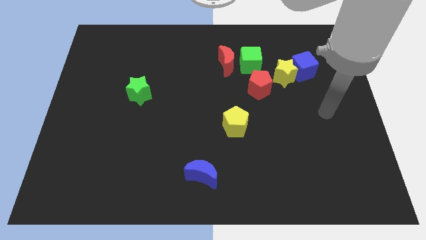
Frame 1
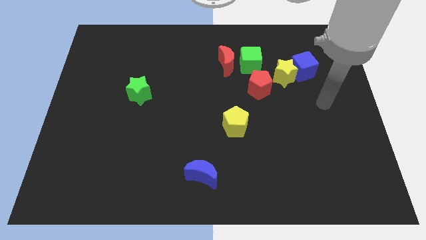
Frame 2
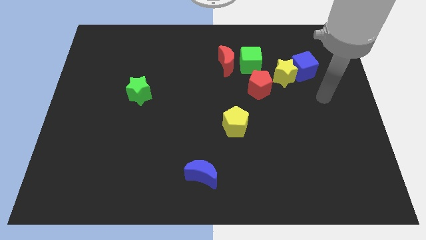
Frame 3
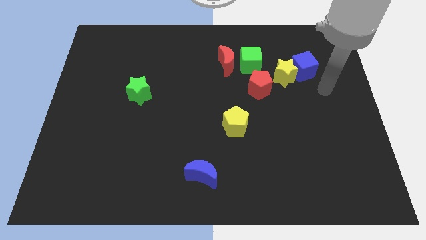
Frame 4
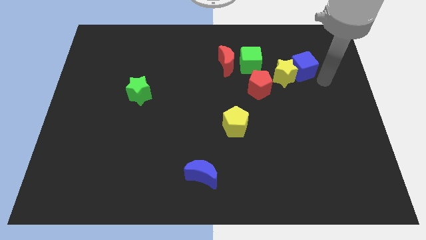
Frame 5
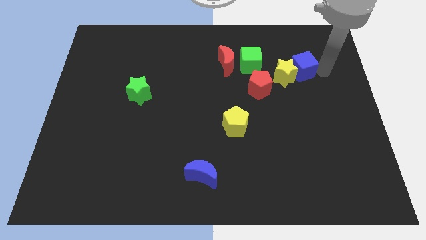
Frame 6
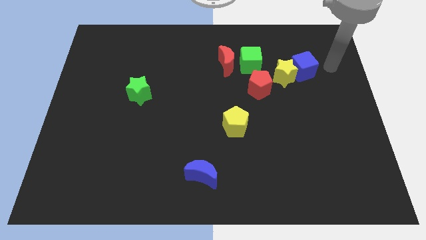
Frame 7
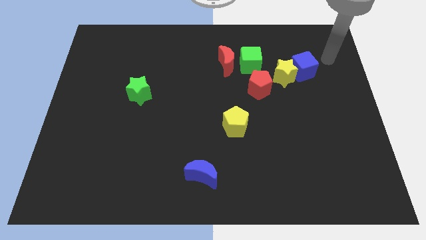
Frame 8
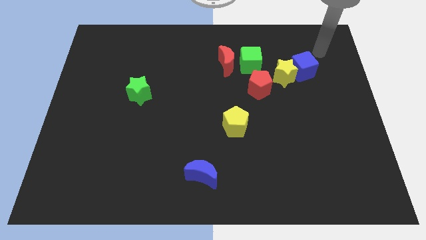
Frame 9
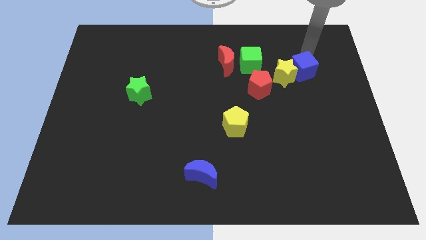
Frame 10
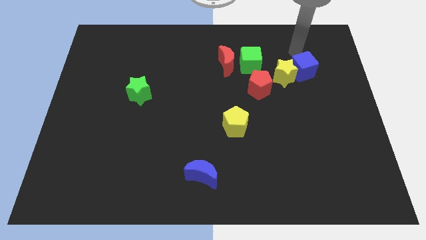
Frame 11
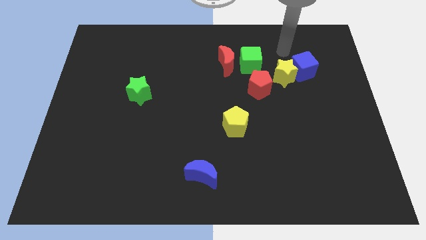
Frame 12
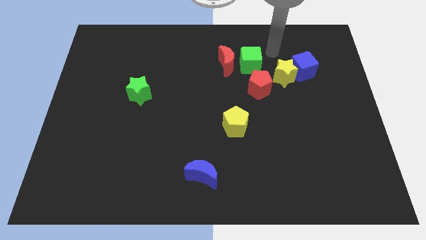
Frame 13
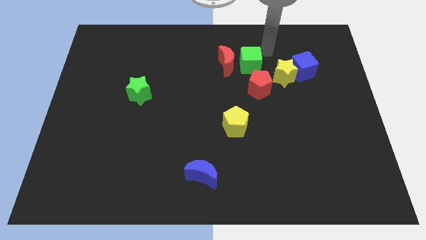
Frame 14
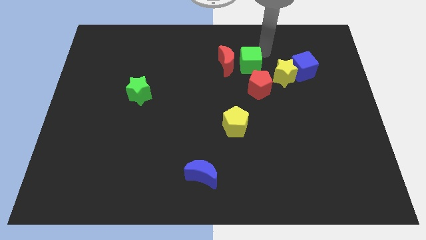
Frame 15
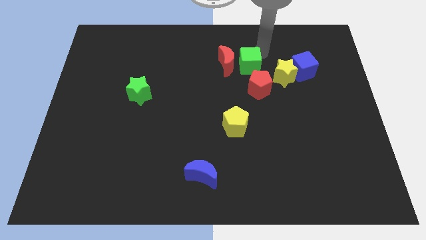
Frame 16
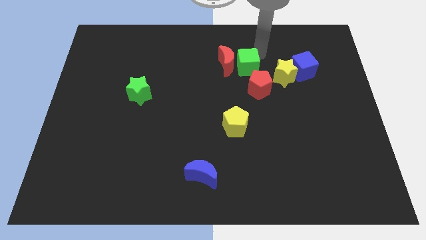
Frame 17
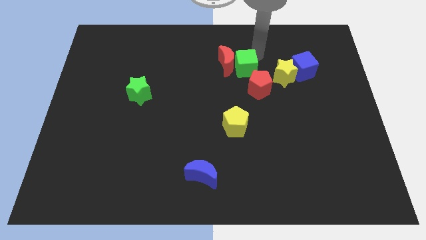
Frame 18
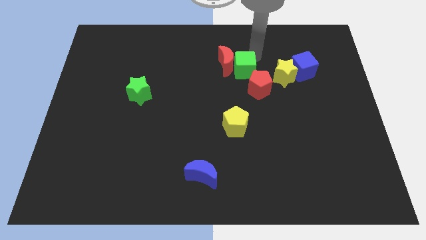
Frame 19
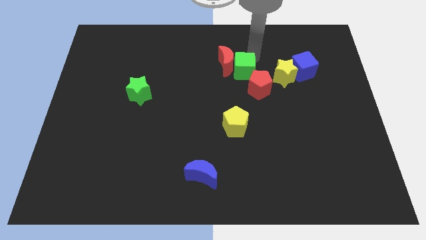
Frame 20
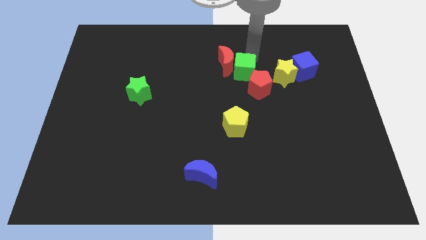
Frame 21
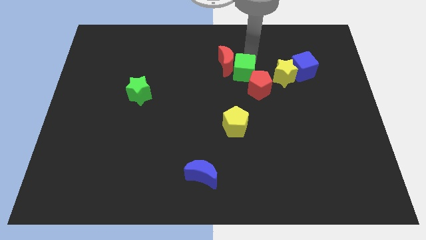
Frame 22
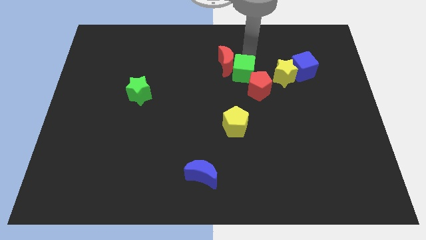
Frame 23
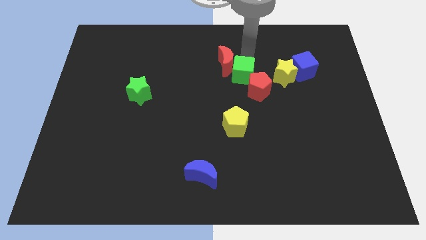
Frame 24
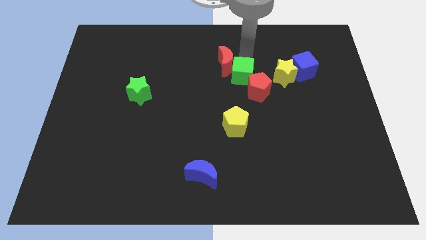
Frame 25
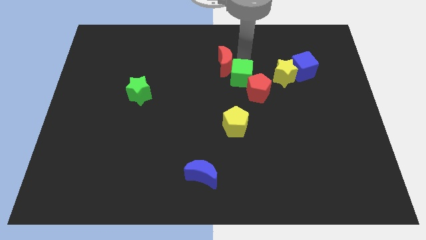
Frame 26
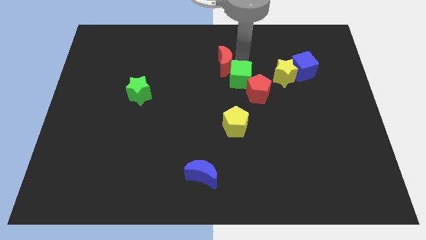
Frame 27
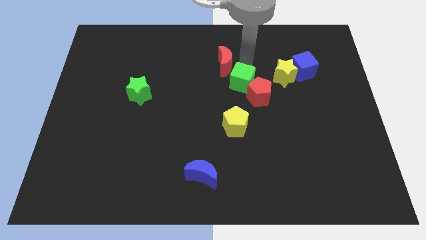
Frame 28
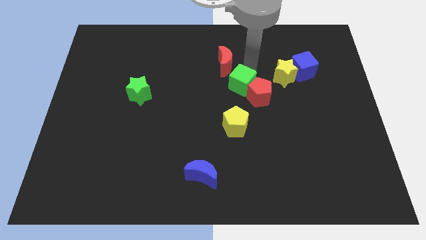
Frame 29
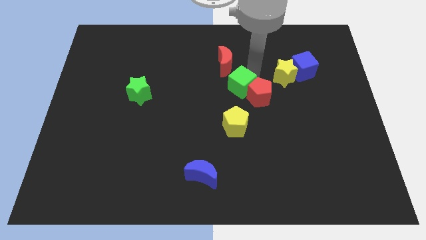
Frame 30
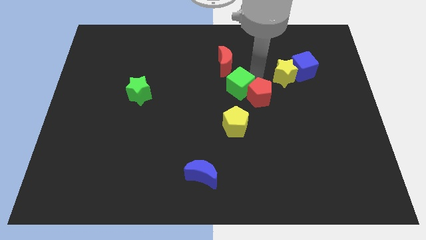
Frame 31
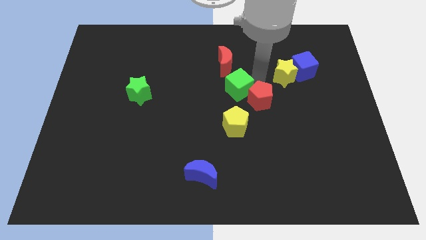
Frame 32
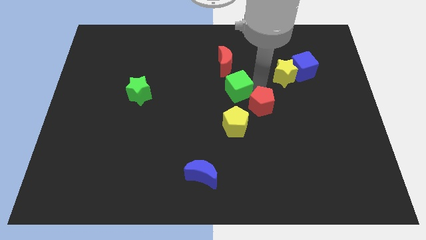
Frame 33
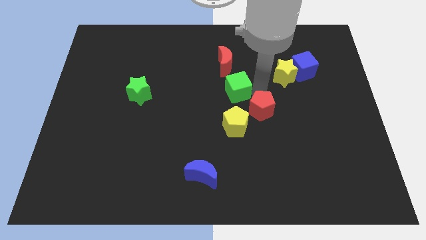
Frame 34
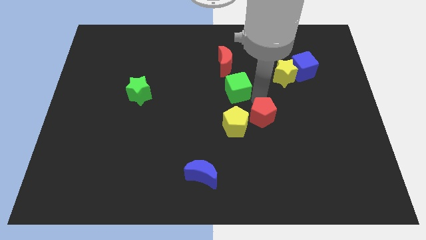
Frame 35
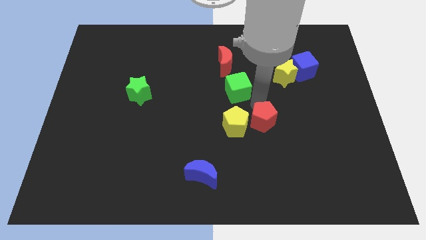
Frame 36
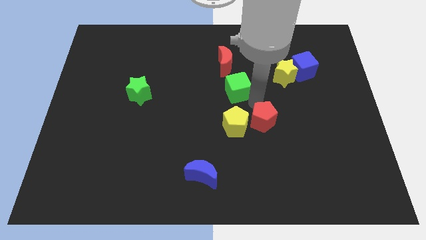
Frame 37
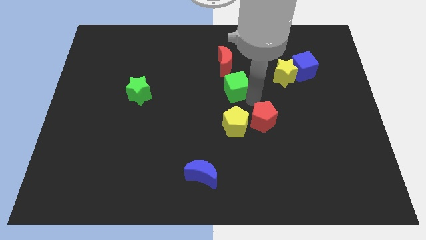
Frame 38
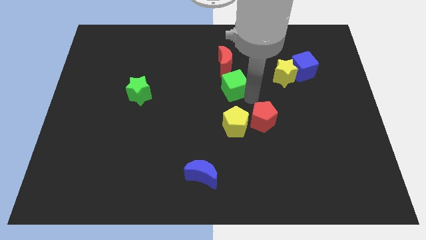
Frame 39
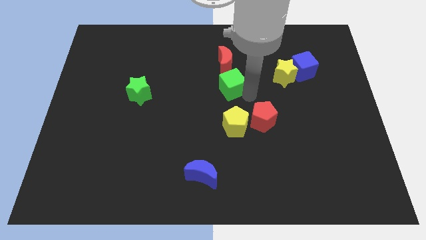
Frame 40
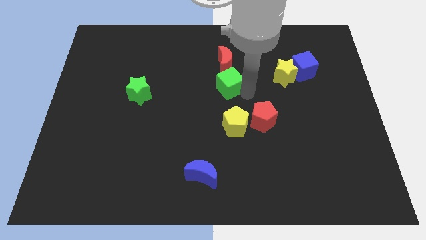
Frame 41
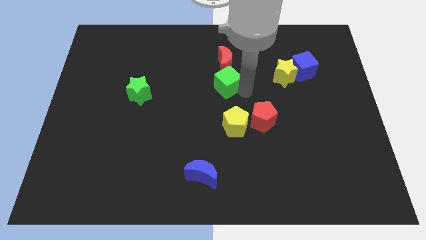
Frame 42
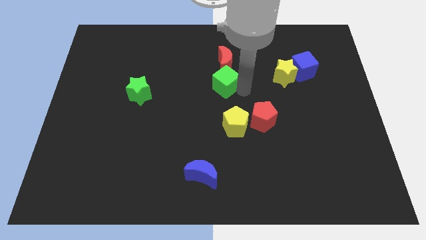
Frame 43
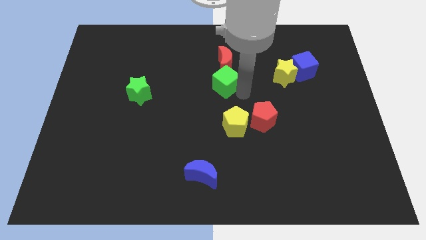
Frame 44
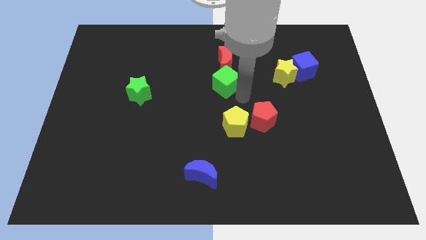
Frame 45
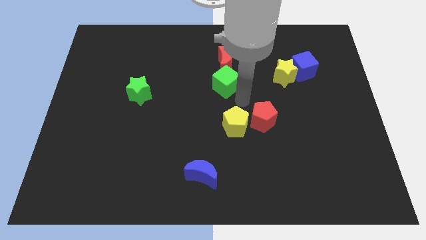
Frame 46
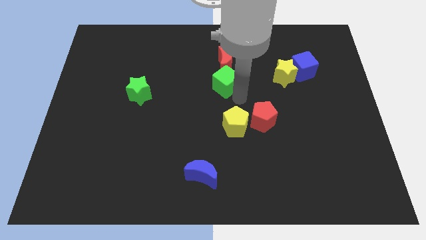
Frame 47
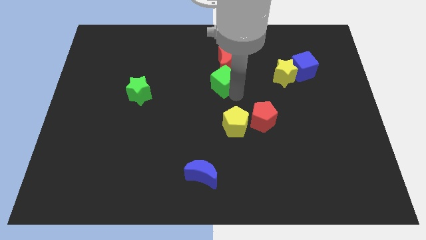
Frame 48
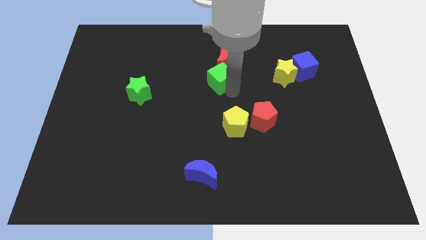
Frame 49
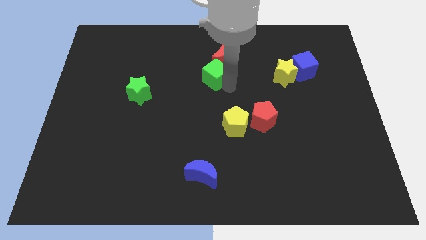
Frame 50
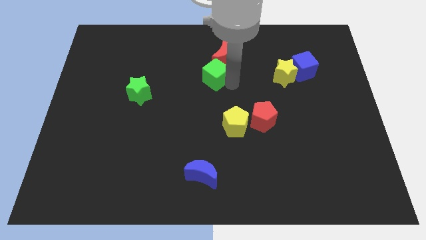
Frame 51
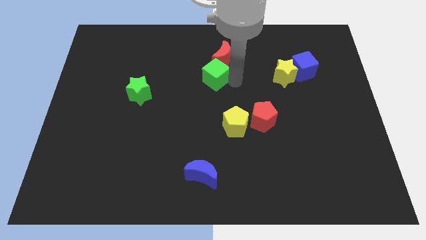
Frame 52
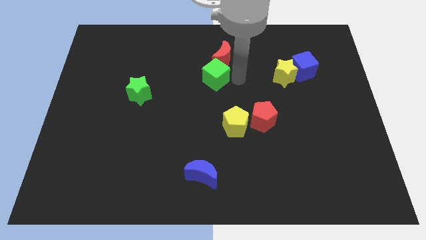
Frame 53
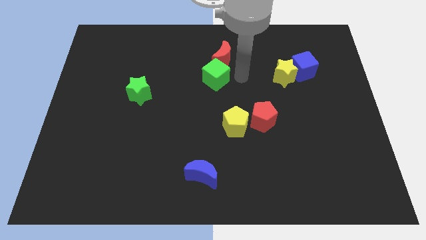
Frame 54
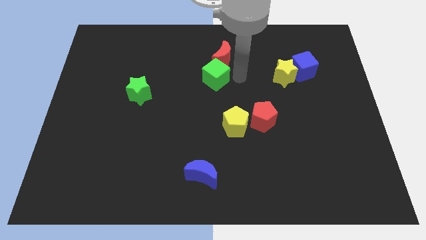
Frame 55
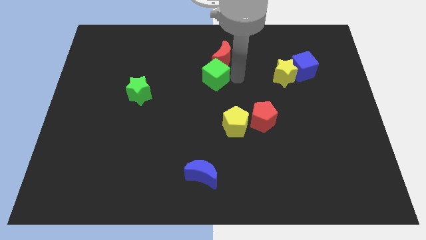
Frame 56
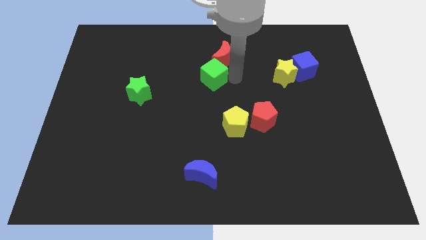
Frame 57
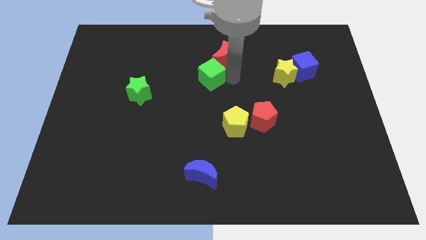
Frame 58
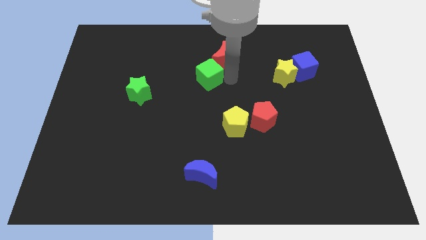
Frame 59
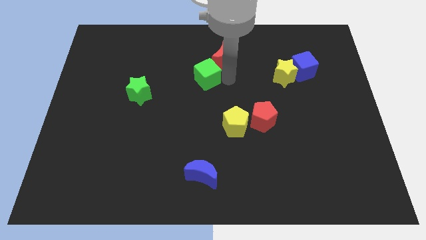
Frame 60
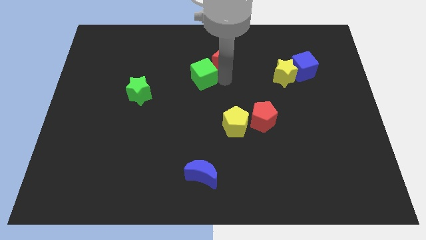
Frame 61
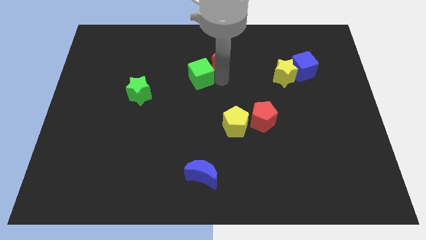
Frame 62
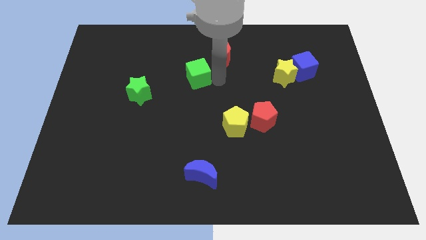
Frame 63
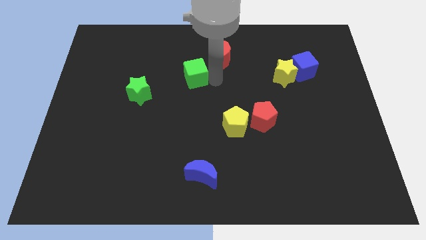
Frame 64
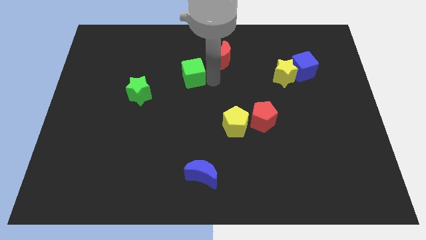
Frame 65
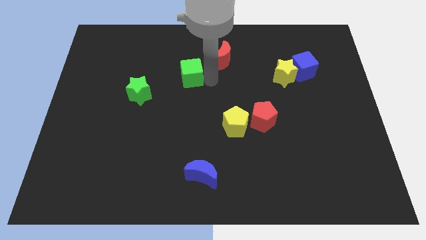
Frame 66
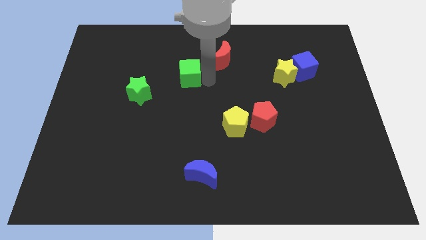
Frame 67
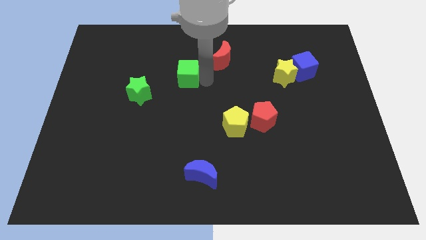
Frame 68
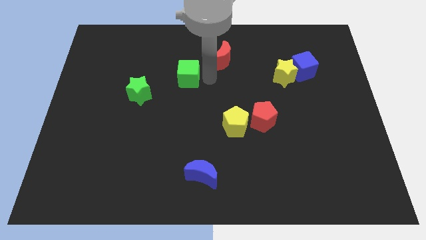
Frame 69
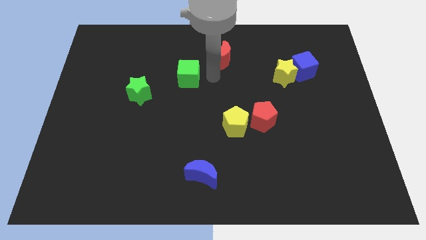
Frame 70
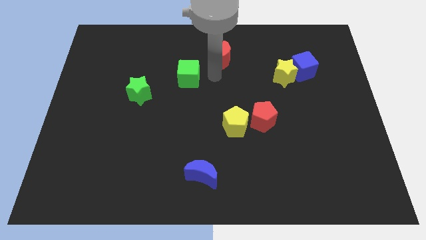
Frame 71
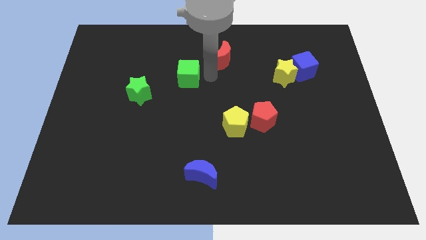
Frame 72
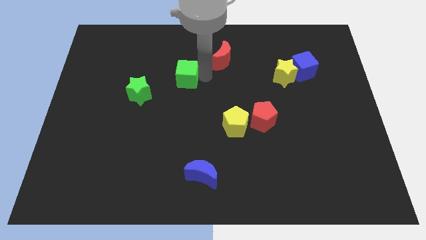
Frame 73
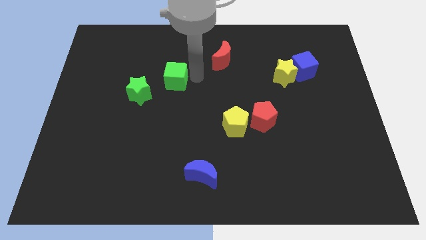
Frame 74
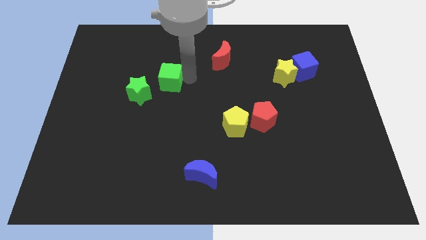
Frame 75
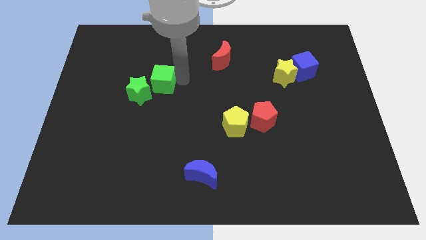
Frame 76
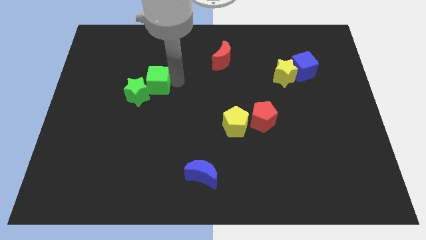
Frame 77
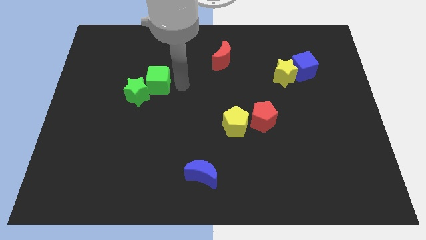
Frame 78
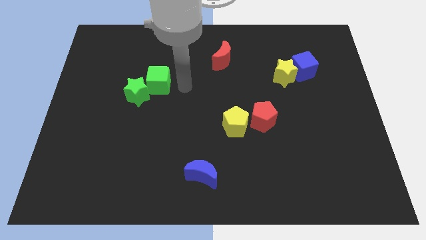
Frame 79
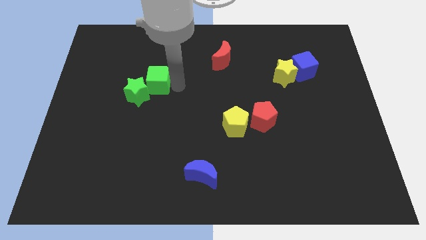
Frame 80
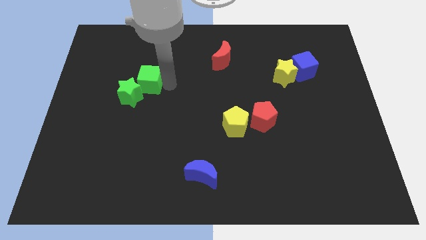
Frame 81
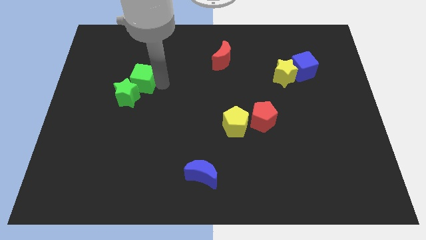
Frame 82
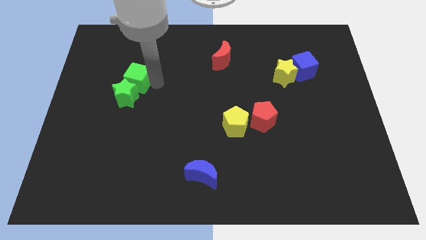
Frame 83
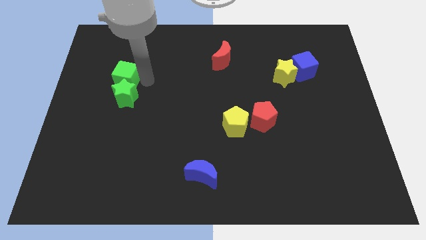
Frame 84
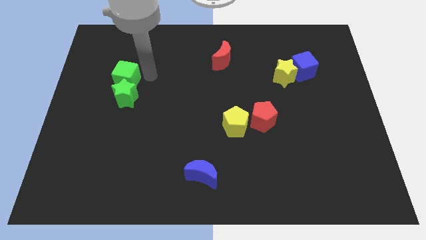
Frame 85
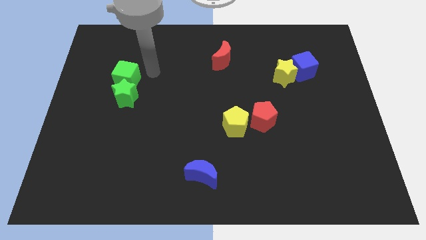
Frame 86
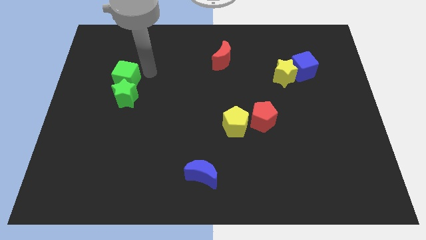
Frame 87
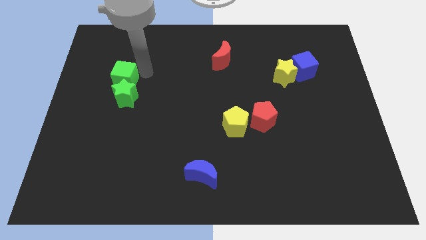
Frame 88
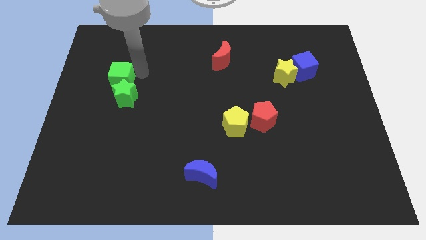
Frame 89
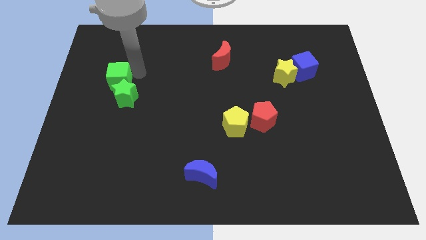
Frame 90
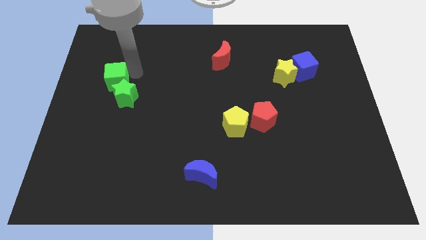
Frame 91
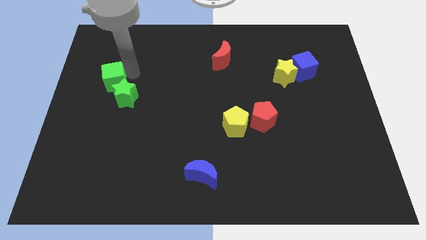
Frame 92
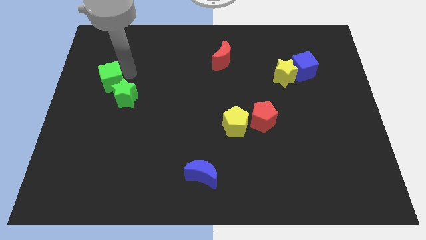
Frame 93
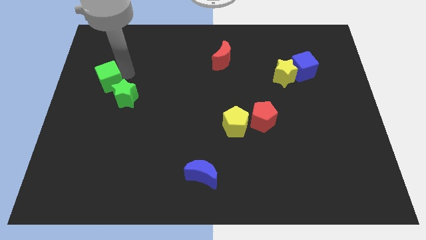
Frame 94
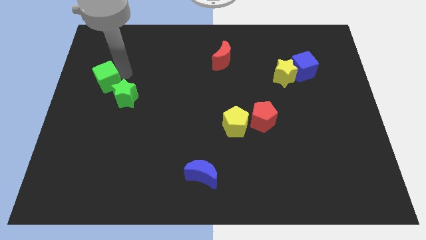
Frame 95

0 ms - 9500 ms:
push the green cube to the left side of the board
